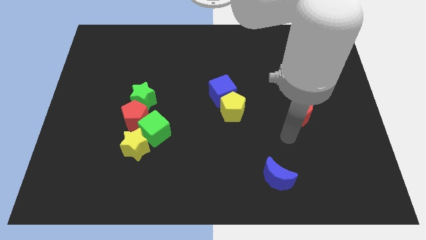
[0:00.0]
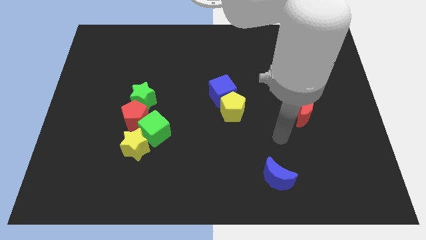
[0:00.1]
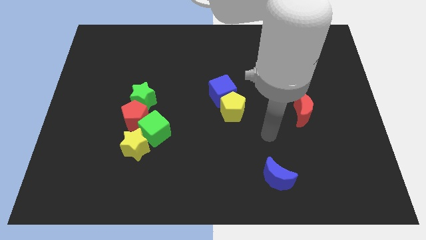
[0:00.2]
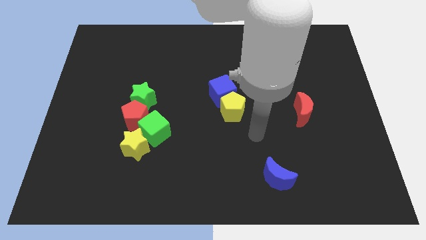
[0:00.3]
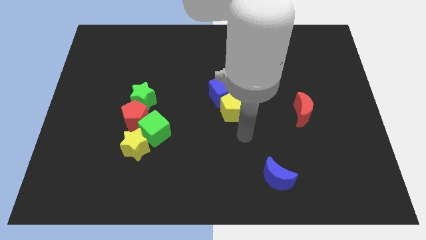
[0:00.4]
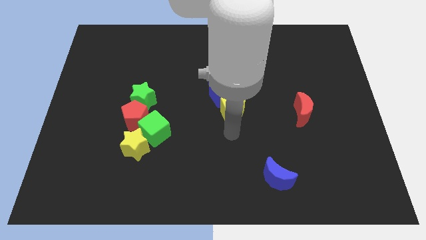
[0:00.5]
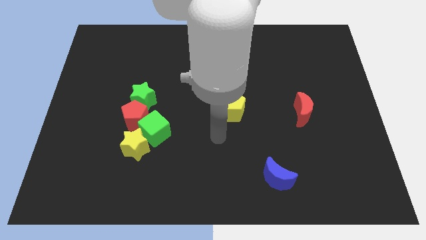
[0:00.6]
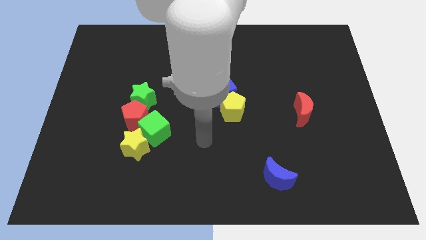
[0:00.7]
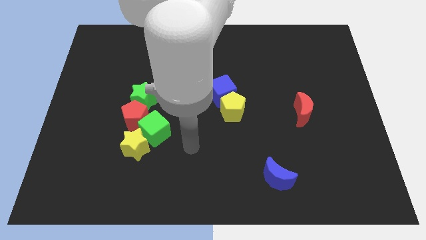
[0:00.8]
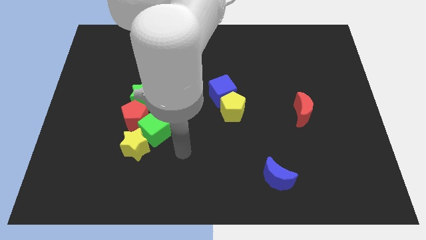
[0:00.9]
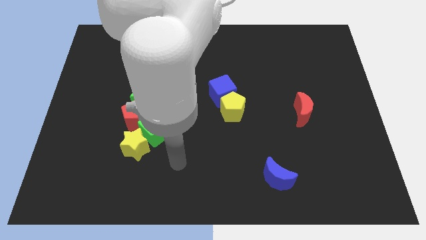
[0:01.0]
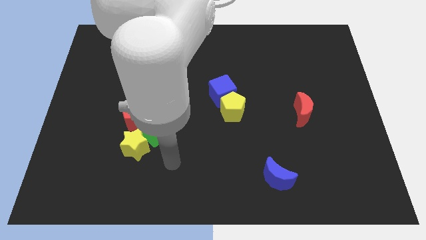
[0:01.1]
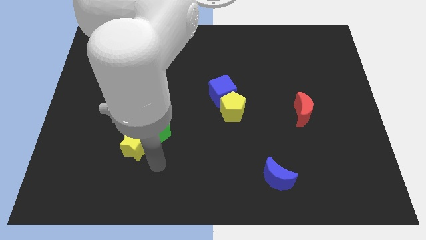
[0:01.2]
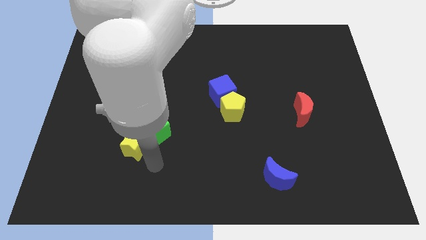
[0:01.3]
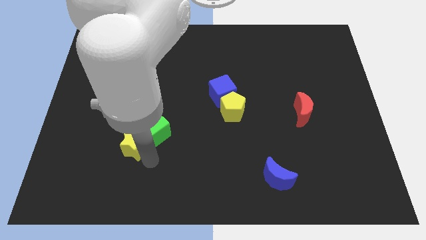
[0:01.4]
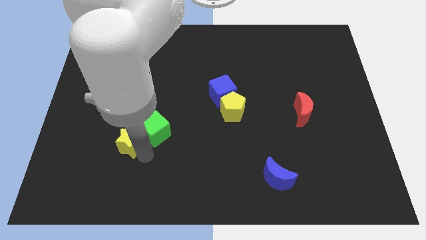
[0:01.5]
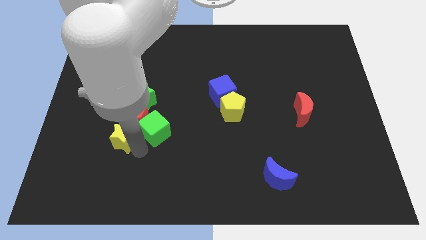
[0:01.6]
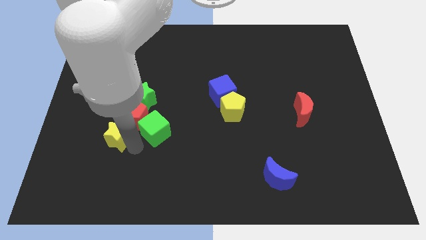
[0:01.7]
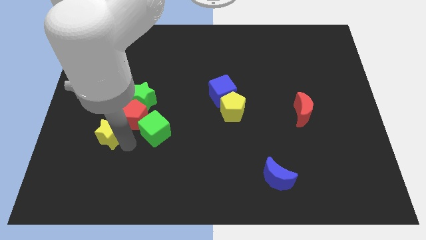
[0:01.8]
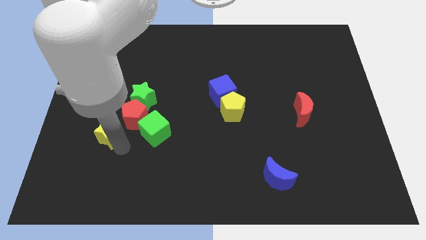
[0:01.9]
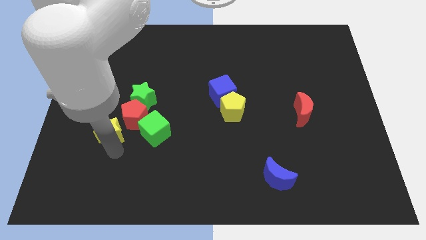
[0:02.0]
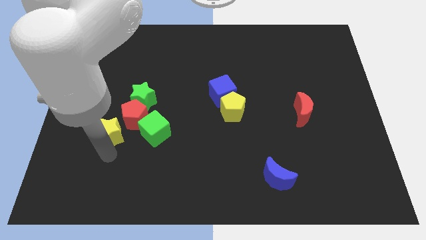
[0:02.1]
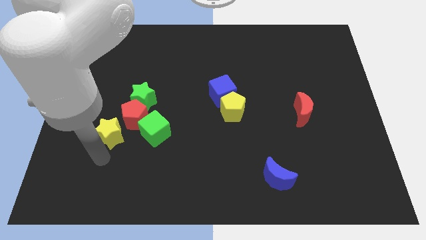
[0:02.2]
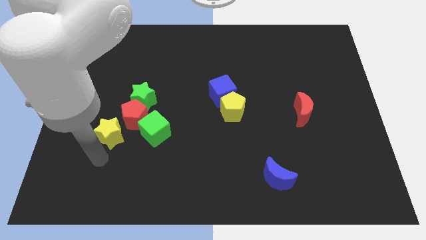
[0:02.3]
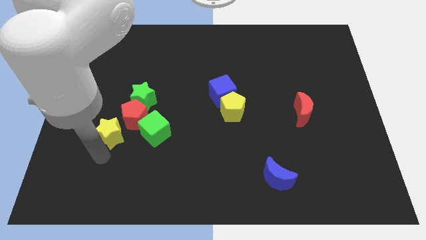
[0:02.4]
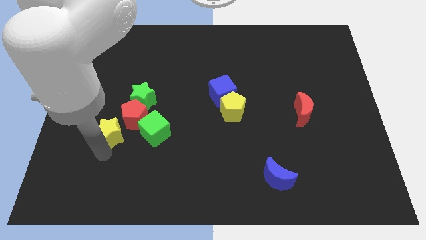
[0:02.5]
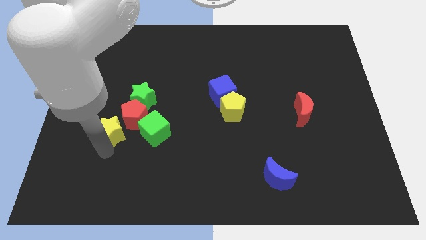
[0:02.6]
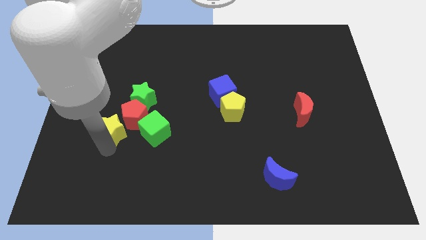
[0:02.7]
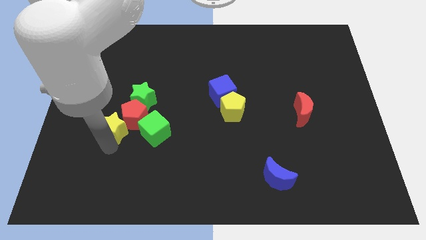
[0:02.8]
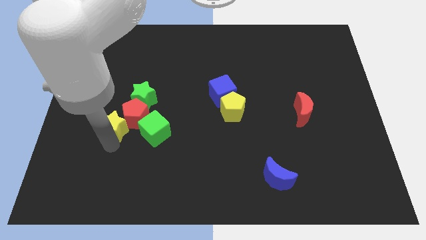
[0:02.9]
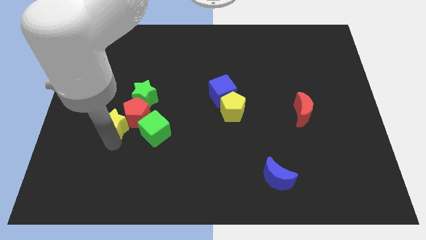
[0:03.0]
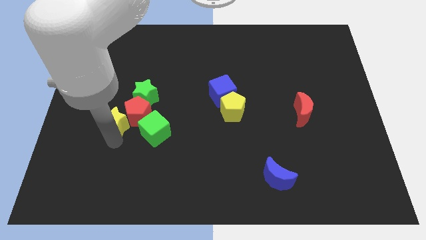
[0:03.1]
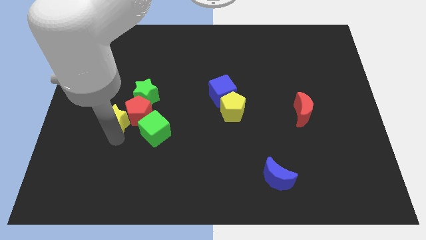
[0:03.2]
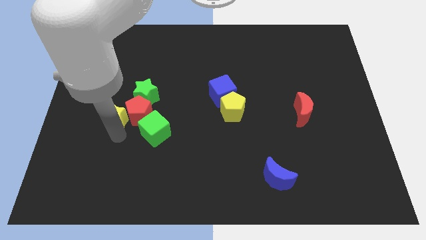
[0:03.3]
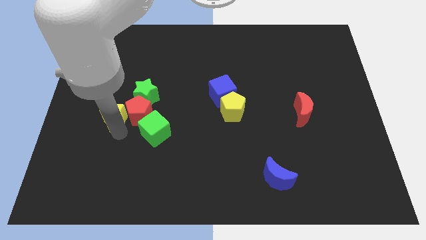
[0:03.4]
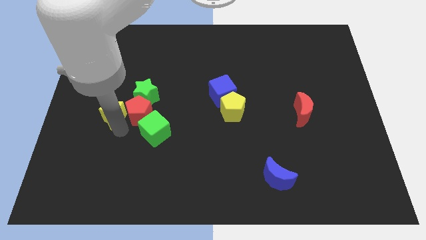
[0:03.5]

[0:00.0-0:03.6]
move the yellow star somewhat upwards

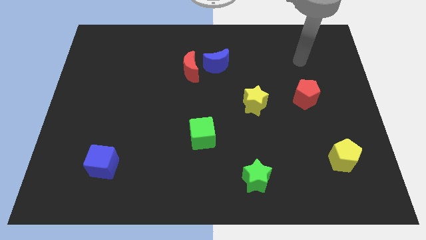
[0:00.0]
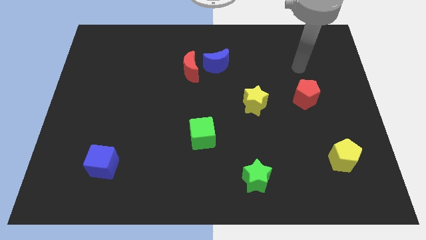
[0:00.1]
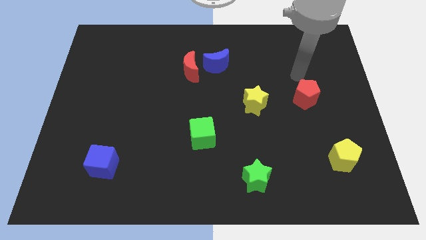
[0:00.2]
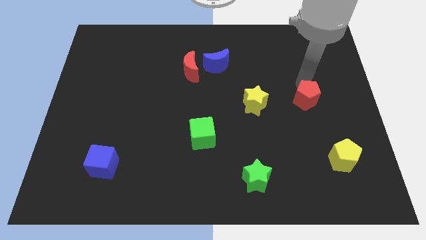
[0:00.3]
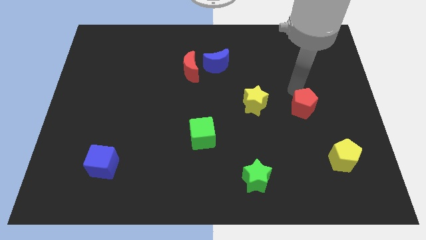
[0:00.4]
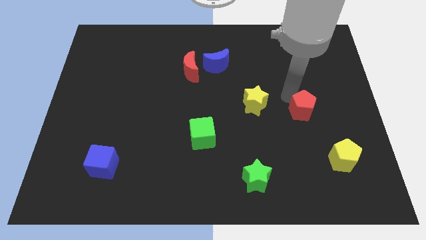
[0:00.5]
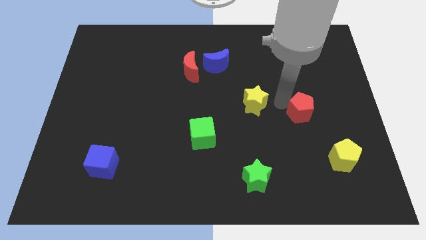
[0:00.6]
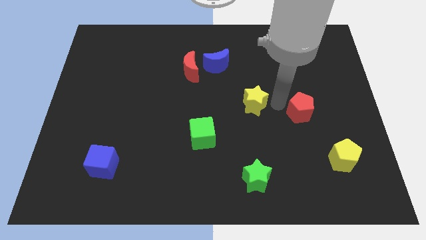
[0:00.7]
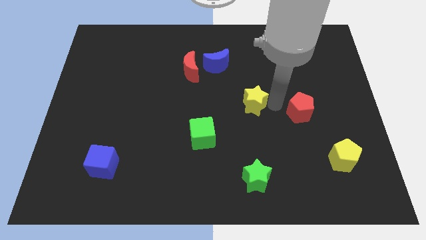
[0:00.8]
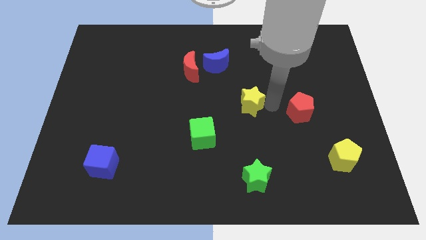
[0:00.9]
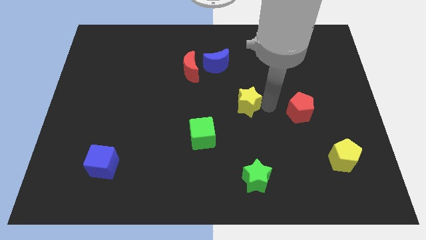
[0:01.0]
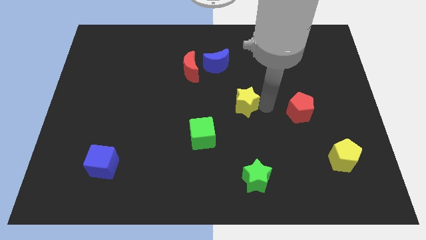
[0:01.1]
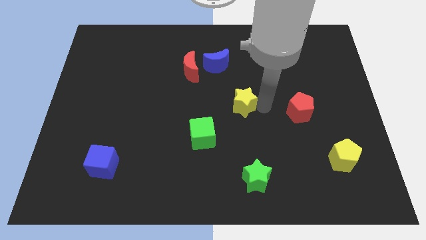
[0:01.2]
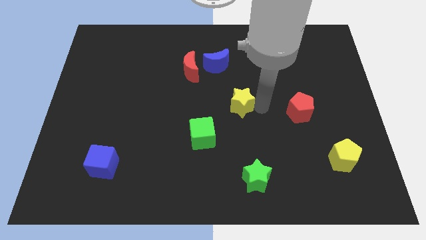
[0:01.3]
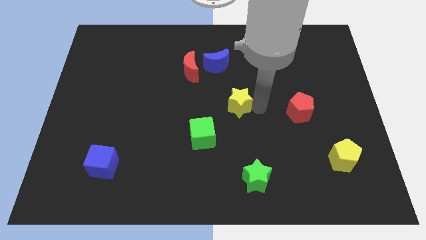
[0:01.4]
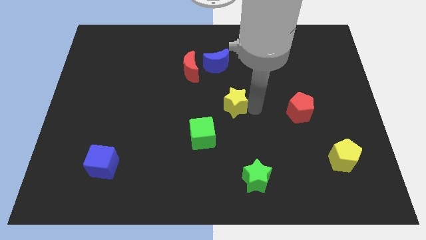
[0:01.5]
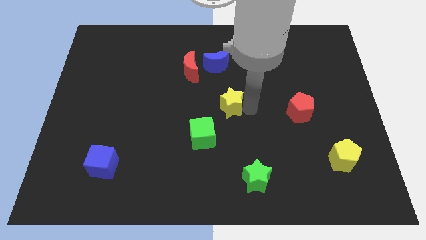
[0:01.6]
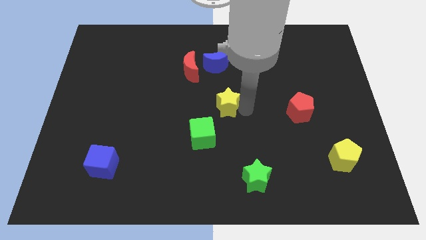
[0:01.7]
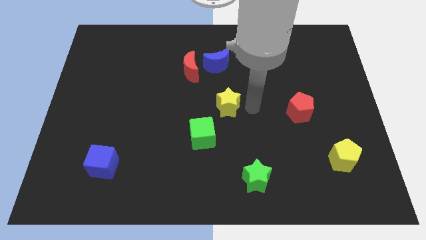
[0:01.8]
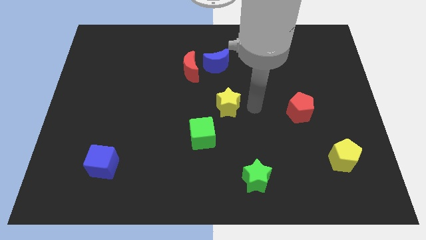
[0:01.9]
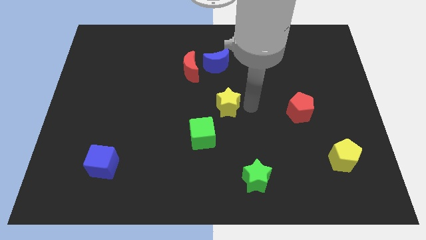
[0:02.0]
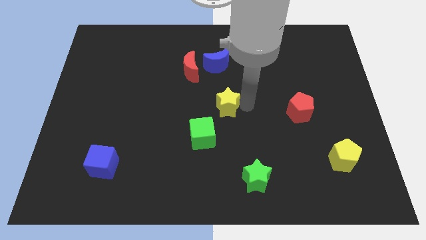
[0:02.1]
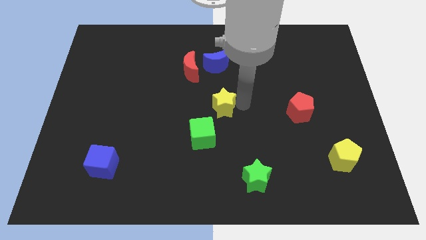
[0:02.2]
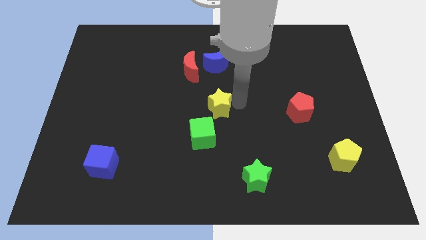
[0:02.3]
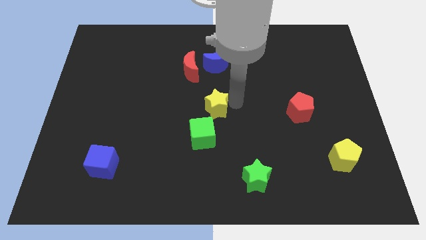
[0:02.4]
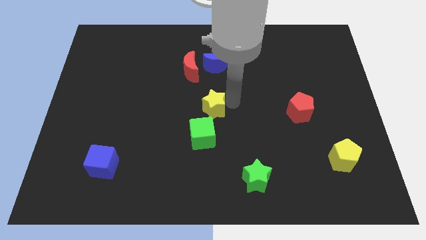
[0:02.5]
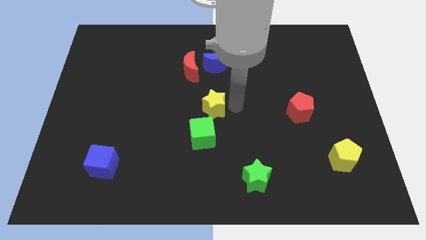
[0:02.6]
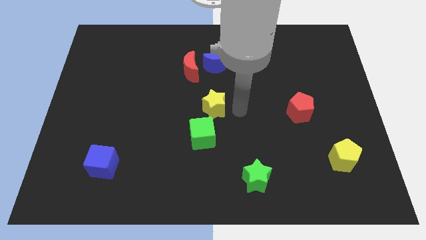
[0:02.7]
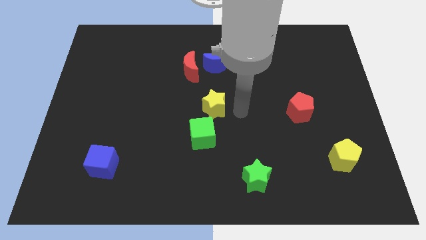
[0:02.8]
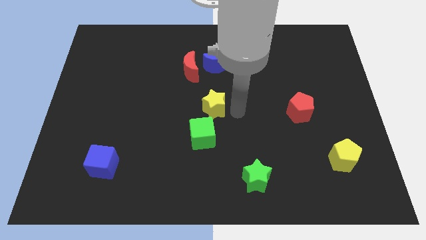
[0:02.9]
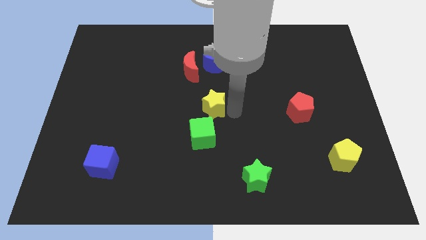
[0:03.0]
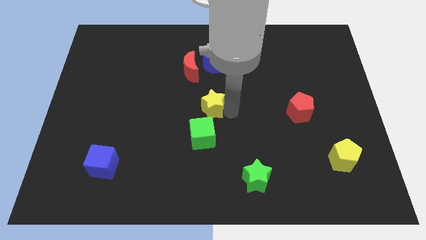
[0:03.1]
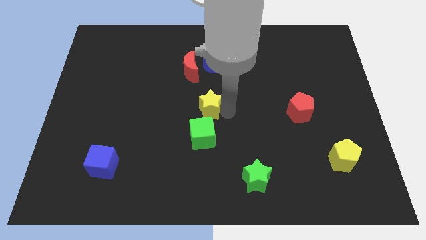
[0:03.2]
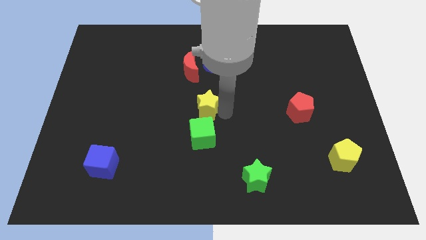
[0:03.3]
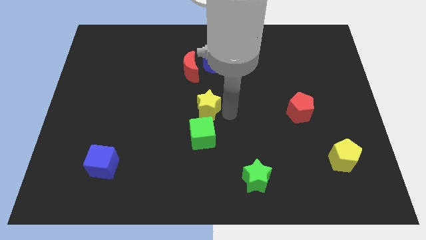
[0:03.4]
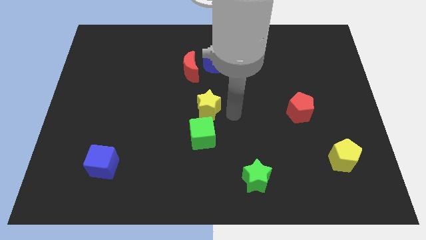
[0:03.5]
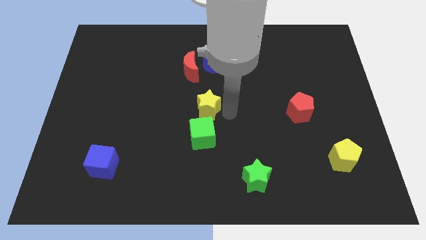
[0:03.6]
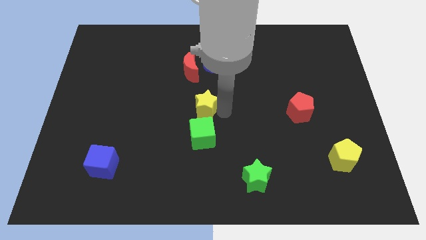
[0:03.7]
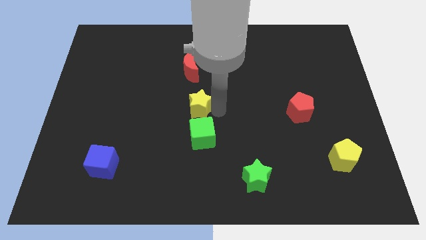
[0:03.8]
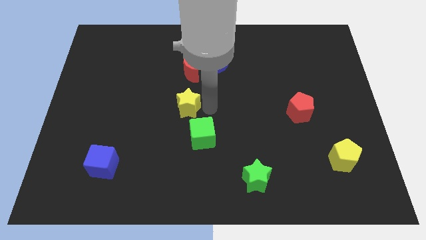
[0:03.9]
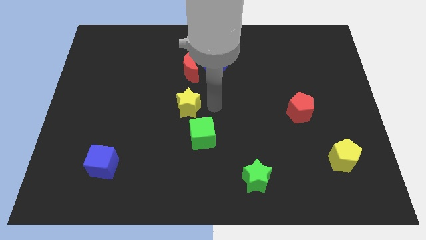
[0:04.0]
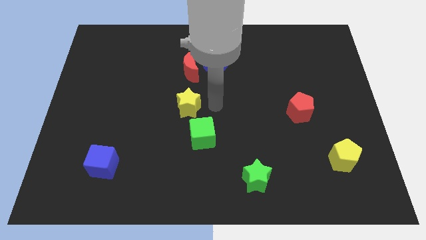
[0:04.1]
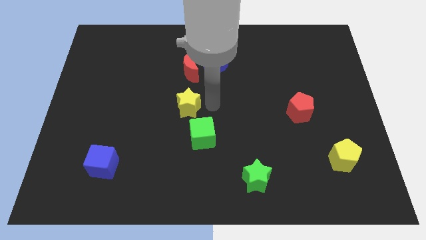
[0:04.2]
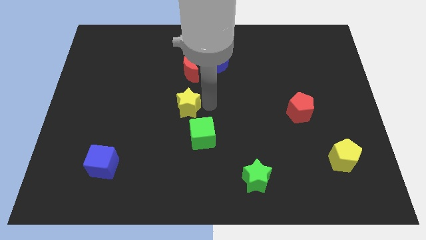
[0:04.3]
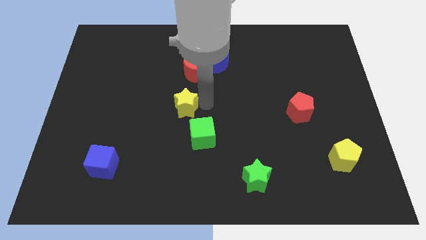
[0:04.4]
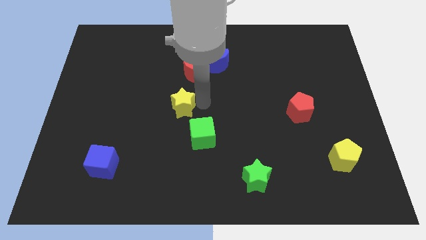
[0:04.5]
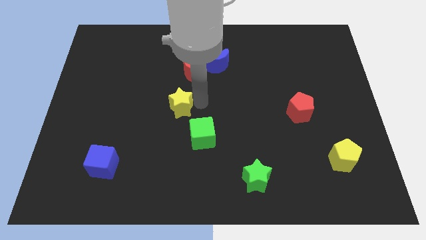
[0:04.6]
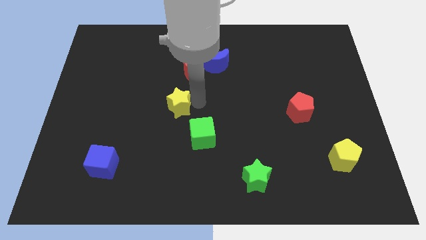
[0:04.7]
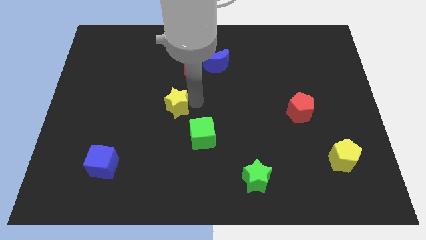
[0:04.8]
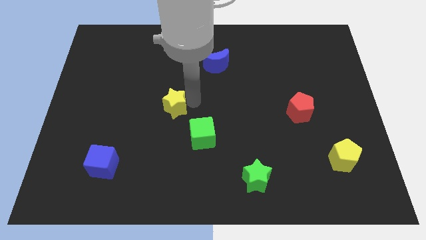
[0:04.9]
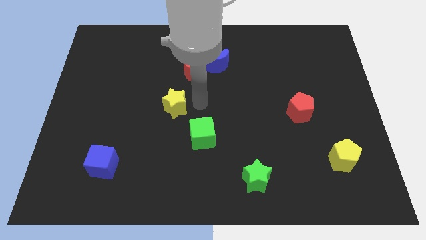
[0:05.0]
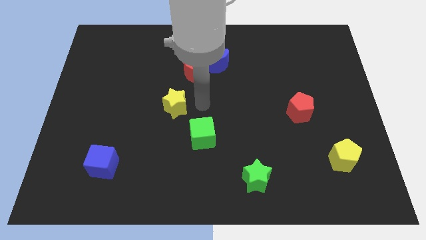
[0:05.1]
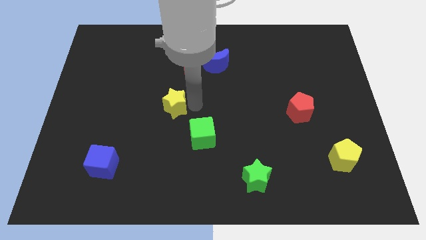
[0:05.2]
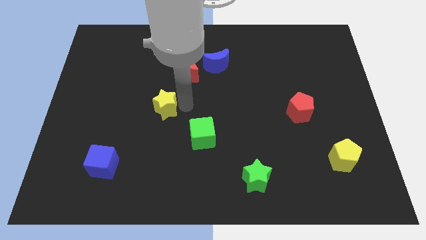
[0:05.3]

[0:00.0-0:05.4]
move the yellow star to the left
